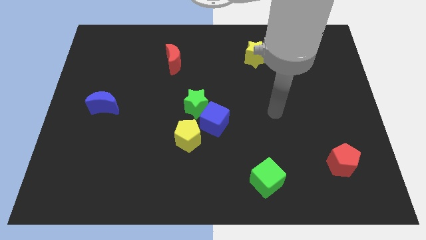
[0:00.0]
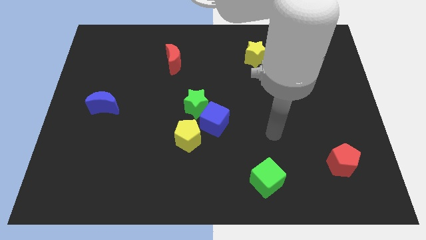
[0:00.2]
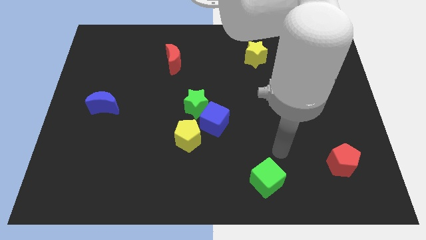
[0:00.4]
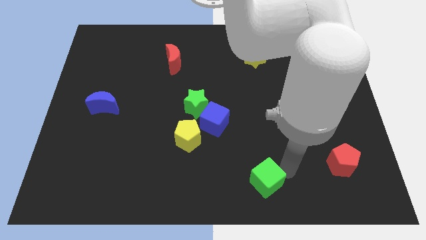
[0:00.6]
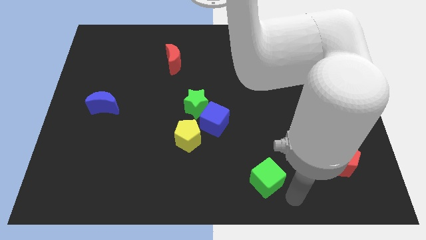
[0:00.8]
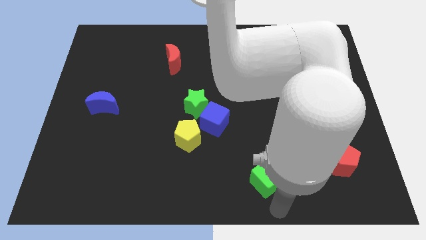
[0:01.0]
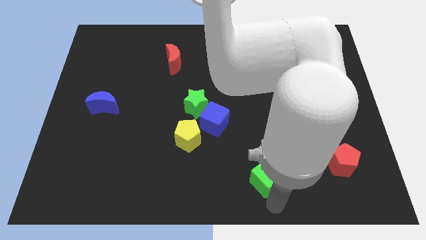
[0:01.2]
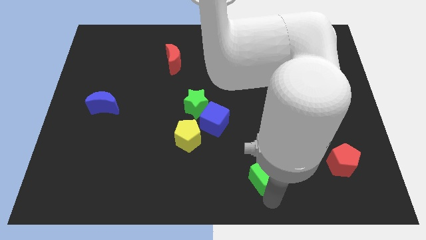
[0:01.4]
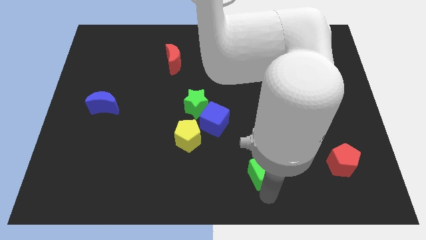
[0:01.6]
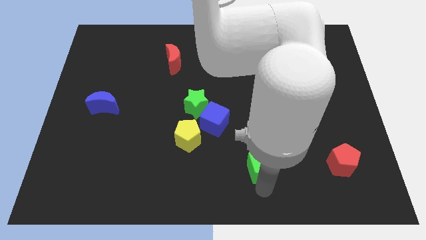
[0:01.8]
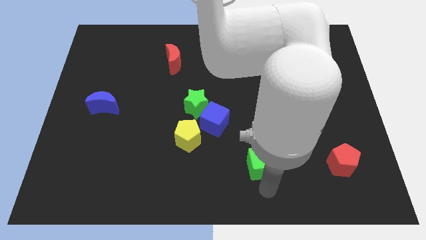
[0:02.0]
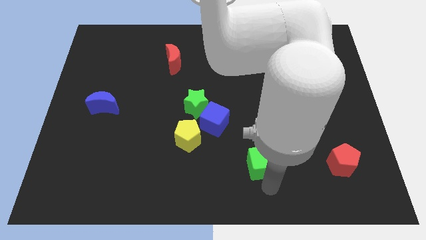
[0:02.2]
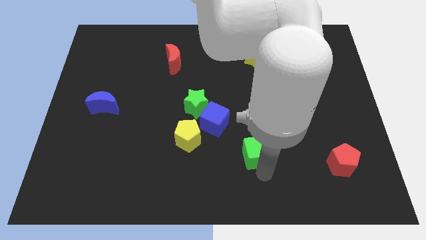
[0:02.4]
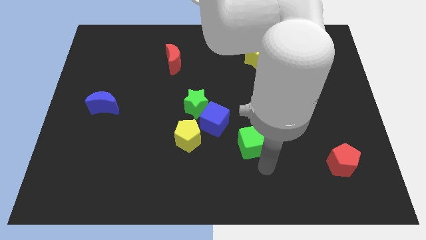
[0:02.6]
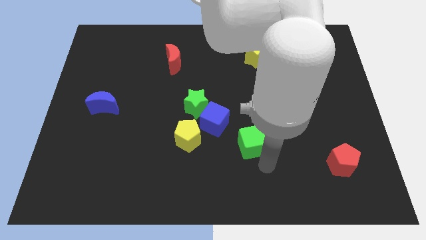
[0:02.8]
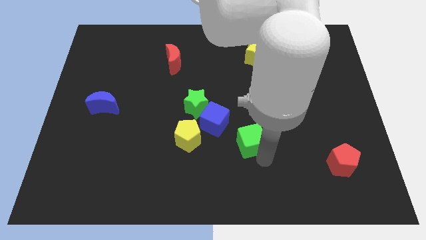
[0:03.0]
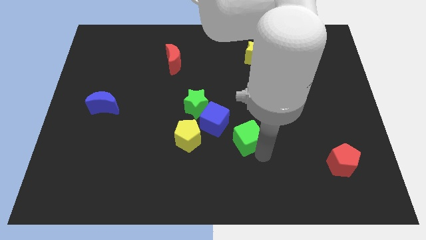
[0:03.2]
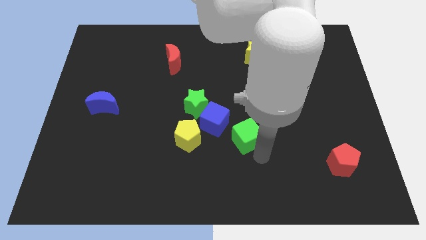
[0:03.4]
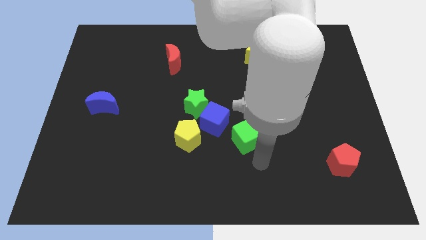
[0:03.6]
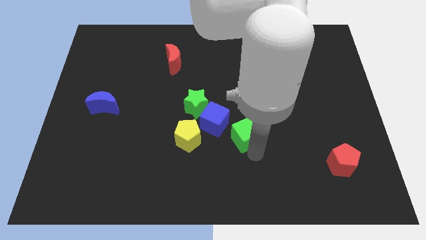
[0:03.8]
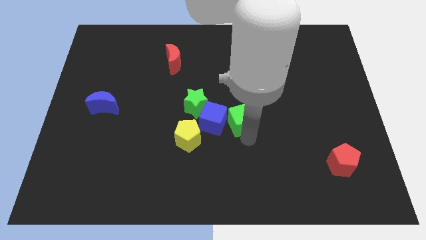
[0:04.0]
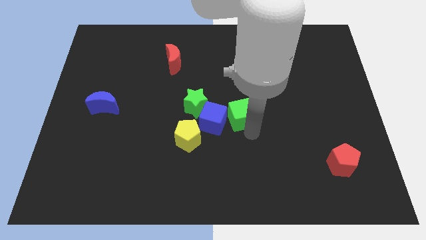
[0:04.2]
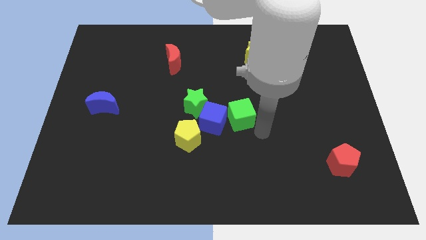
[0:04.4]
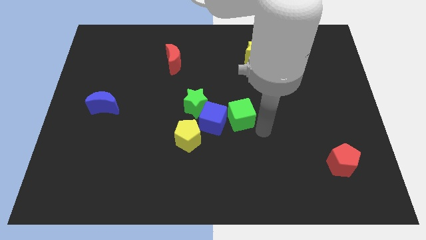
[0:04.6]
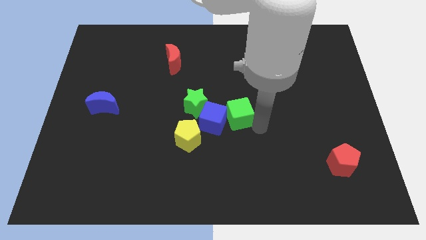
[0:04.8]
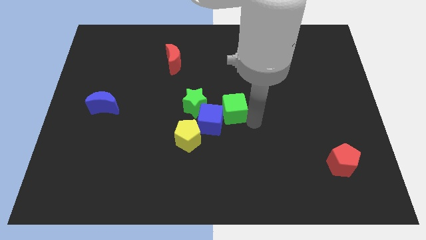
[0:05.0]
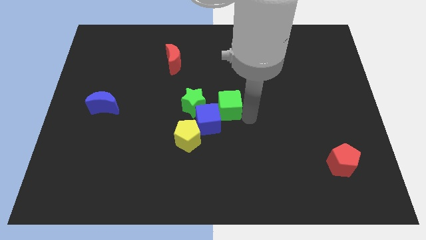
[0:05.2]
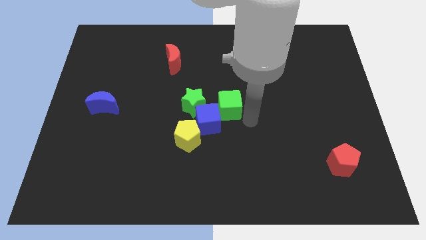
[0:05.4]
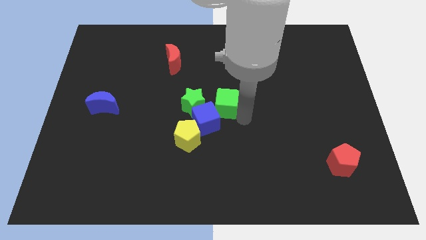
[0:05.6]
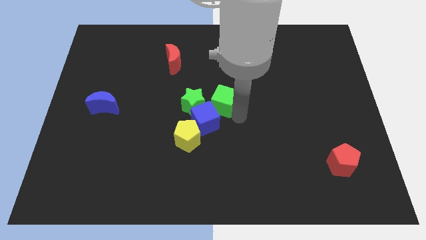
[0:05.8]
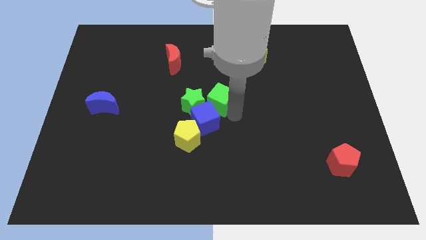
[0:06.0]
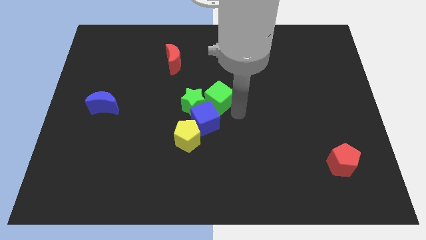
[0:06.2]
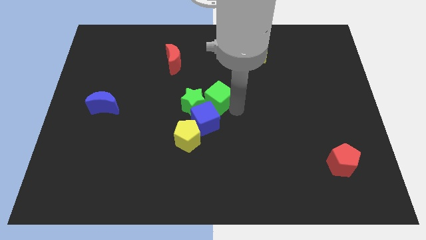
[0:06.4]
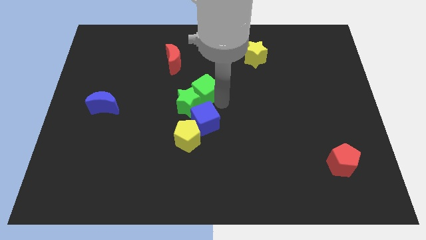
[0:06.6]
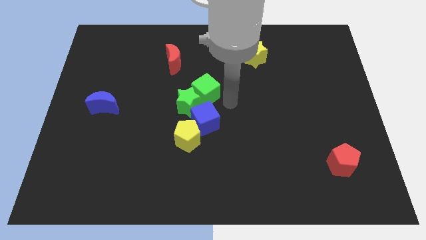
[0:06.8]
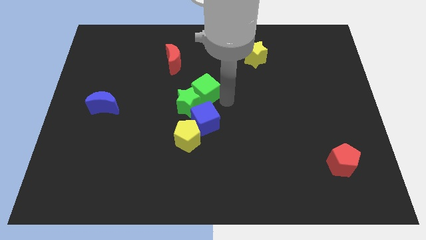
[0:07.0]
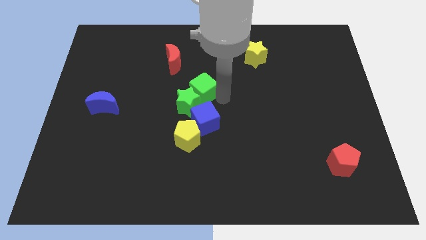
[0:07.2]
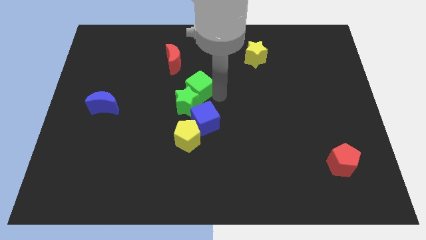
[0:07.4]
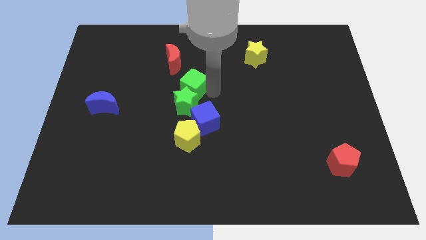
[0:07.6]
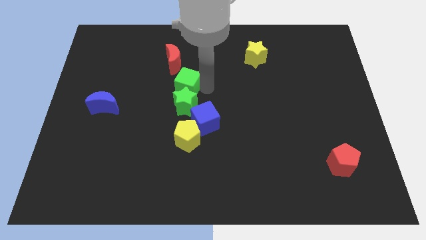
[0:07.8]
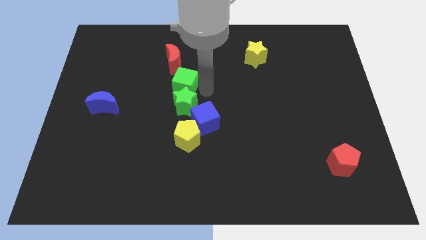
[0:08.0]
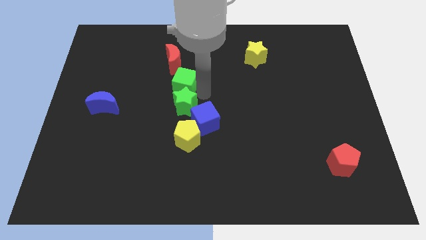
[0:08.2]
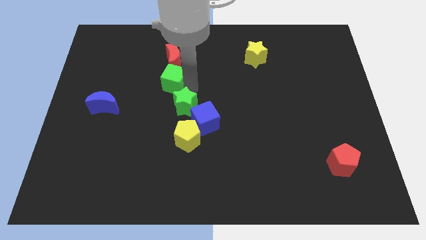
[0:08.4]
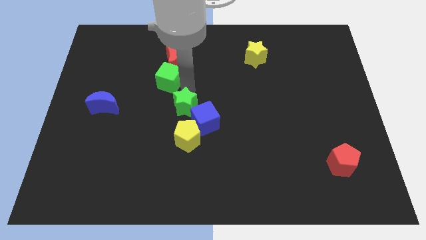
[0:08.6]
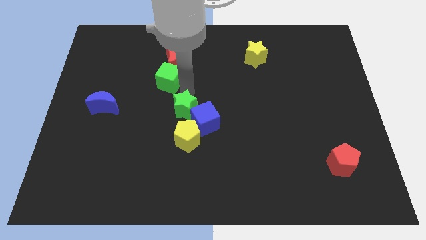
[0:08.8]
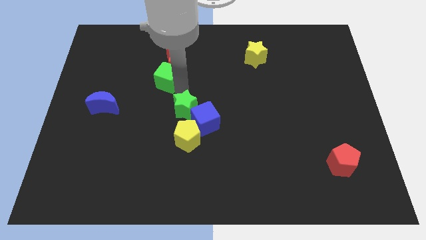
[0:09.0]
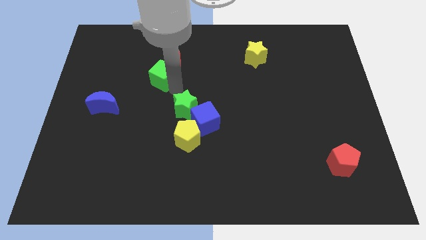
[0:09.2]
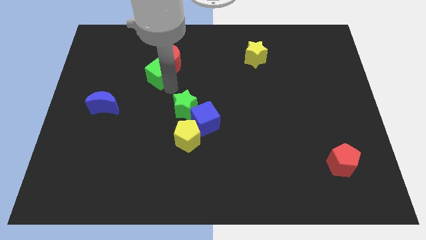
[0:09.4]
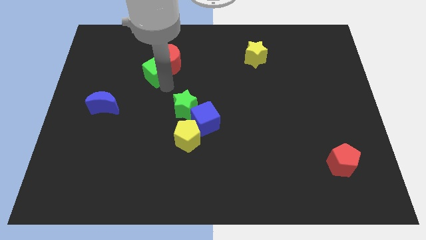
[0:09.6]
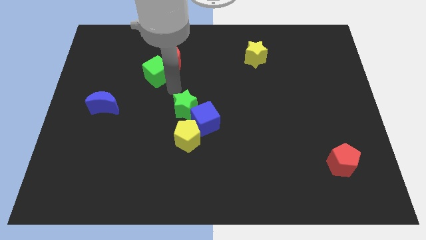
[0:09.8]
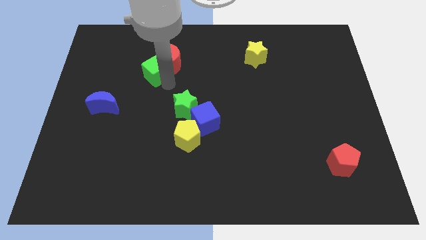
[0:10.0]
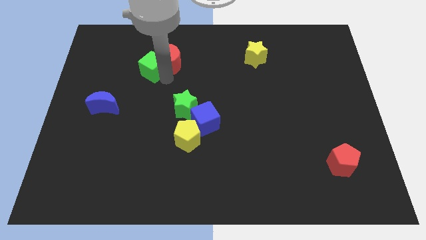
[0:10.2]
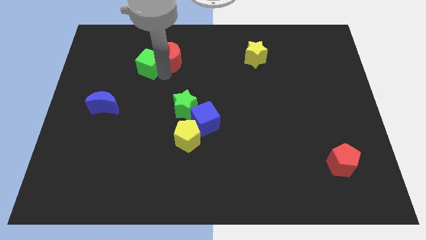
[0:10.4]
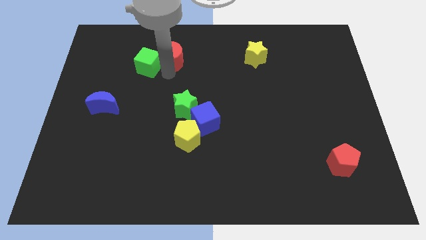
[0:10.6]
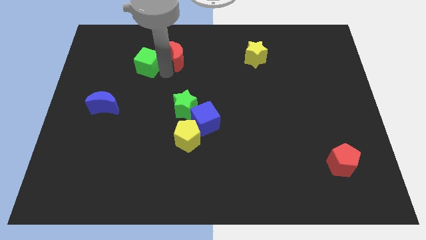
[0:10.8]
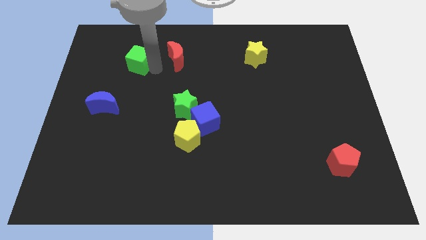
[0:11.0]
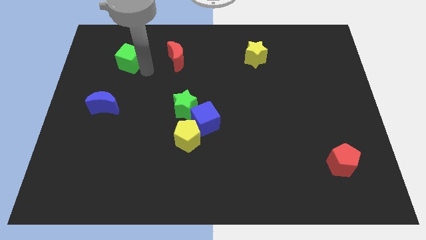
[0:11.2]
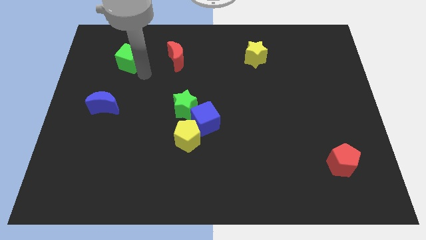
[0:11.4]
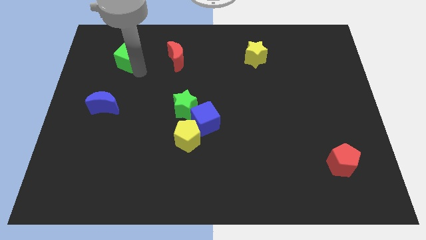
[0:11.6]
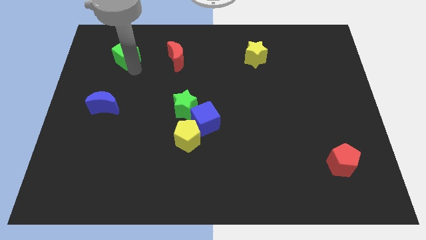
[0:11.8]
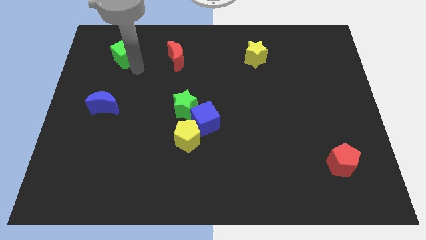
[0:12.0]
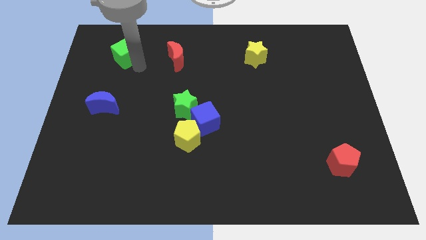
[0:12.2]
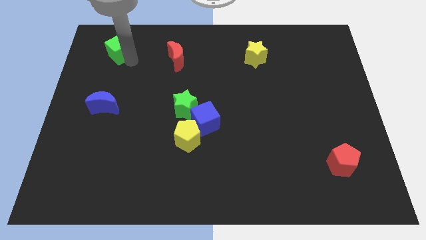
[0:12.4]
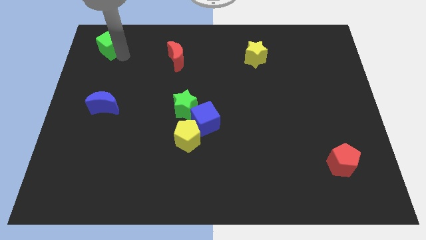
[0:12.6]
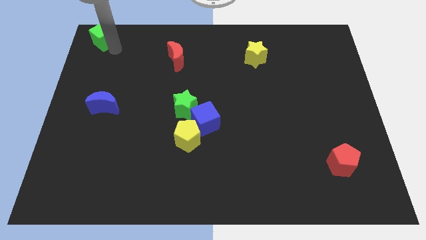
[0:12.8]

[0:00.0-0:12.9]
slide the green cube to the top left
